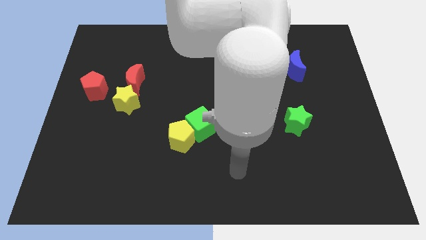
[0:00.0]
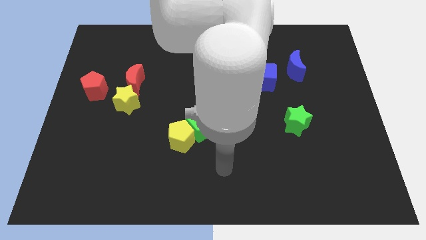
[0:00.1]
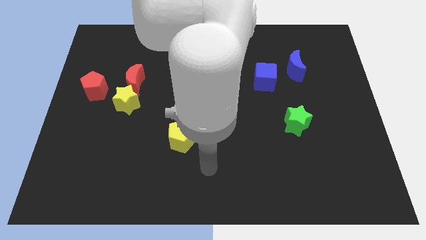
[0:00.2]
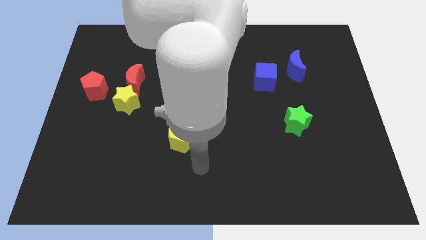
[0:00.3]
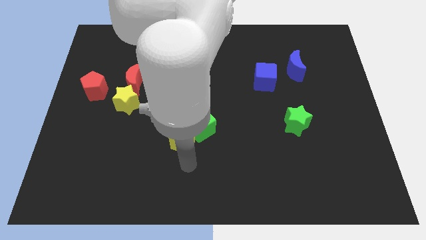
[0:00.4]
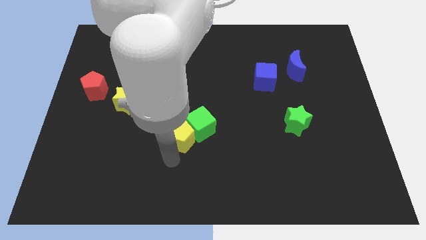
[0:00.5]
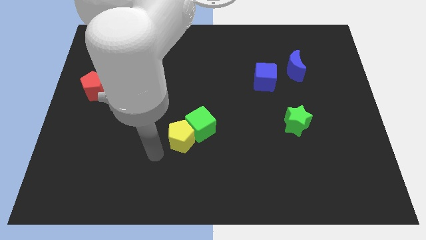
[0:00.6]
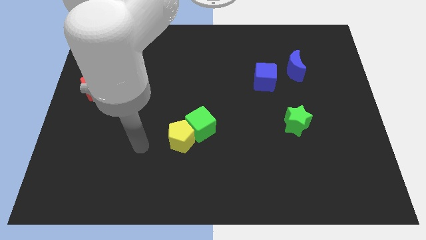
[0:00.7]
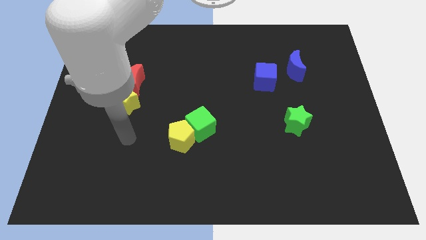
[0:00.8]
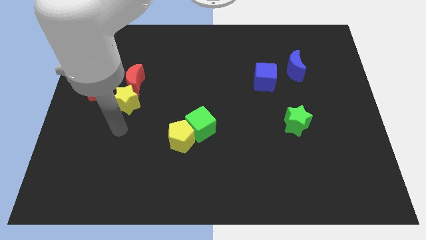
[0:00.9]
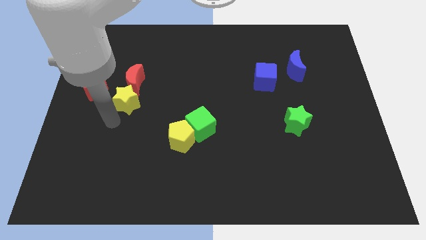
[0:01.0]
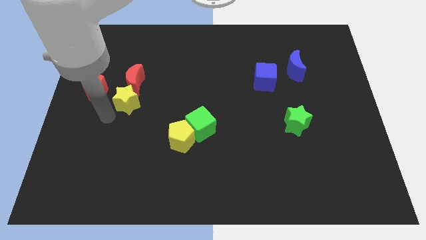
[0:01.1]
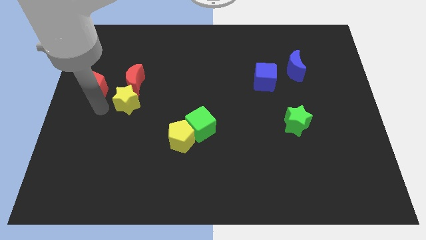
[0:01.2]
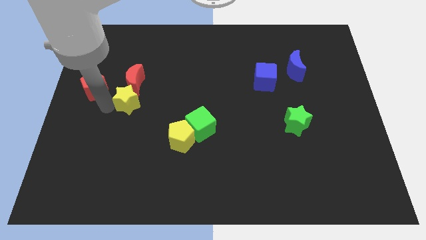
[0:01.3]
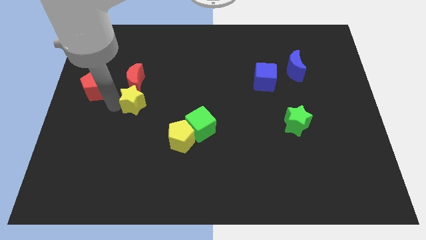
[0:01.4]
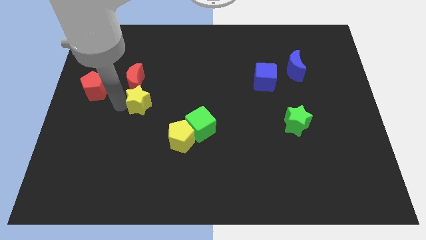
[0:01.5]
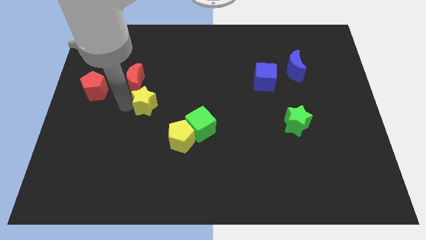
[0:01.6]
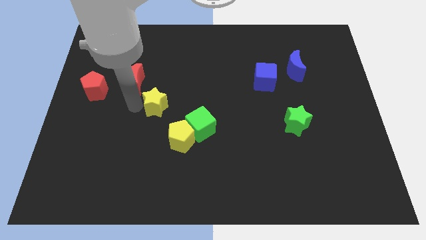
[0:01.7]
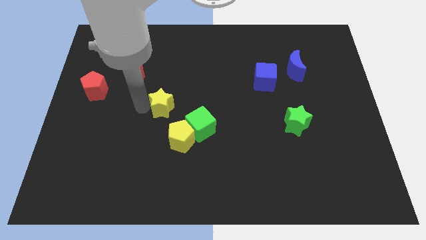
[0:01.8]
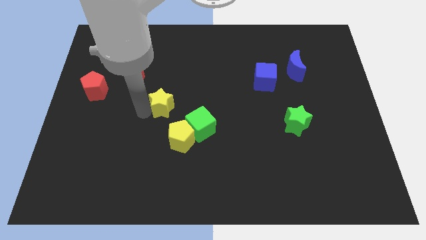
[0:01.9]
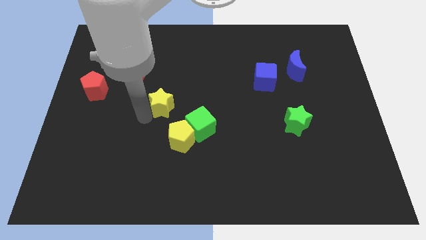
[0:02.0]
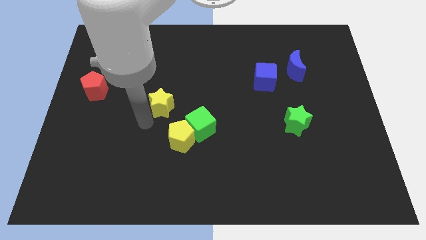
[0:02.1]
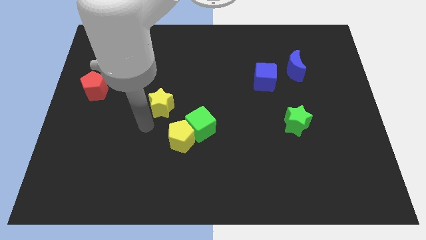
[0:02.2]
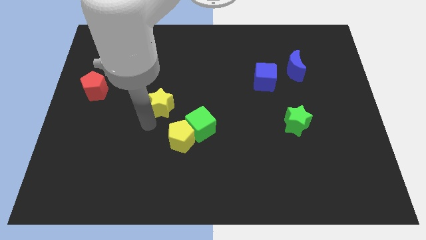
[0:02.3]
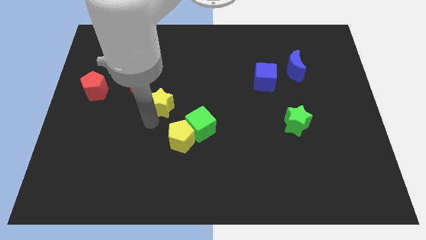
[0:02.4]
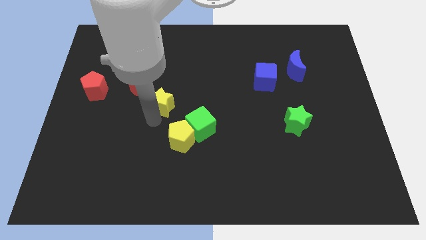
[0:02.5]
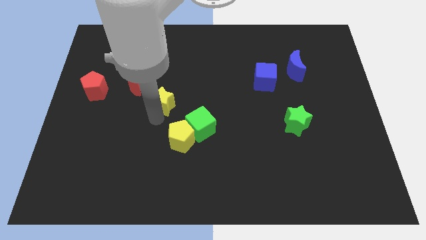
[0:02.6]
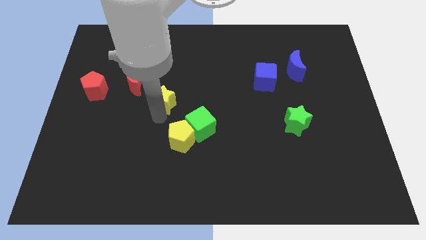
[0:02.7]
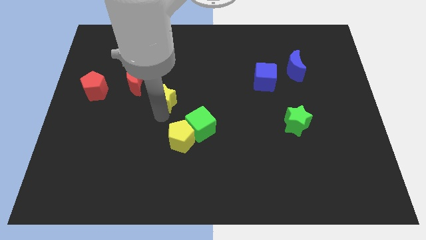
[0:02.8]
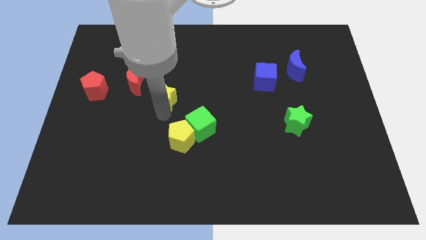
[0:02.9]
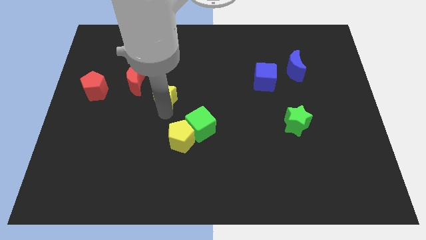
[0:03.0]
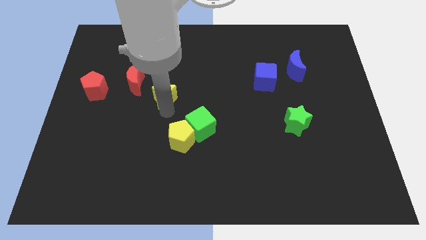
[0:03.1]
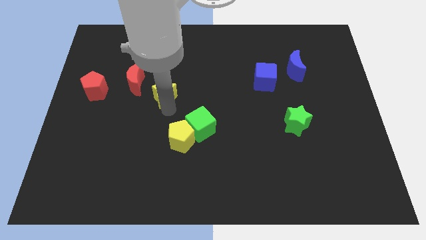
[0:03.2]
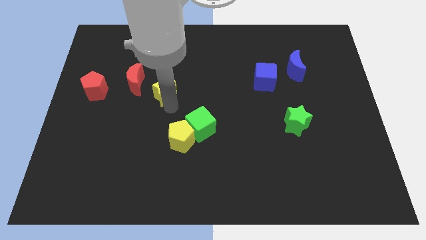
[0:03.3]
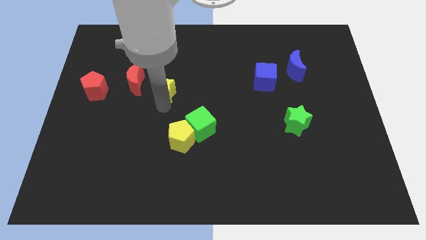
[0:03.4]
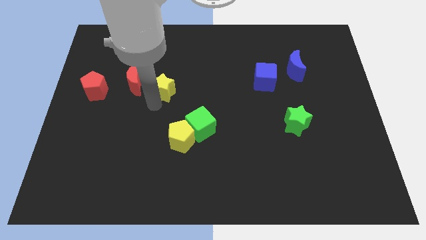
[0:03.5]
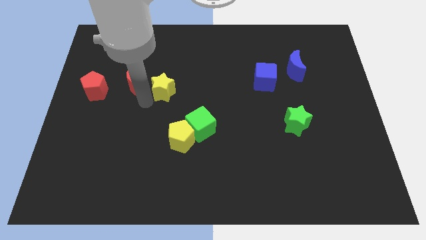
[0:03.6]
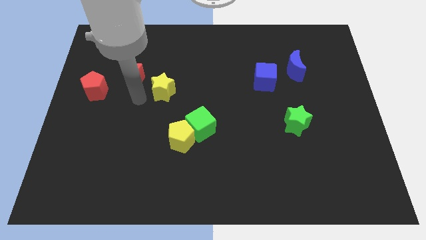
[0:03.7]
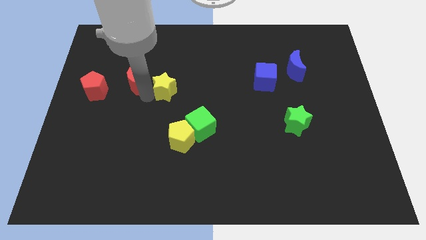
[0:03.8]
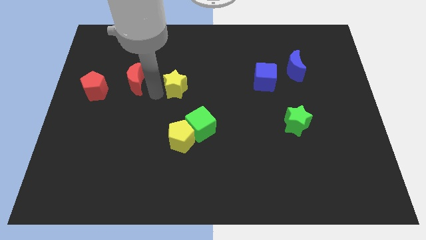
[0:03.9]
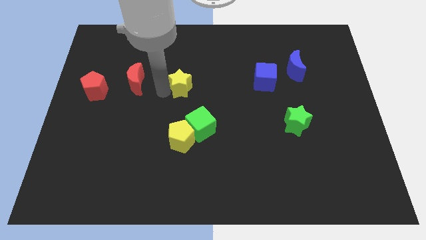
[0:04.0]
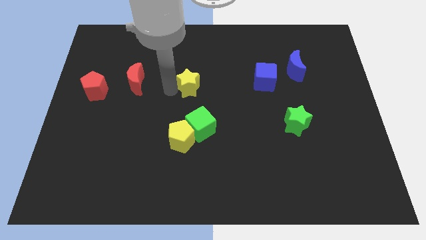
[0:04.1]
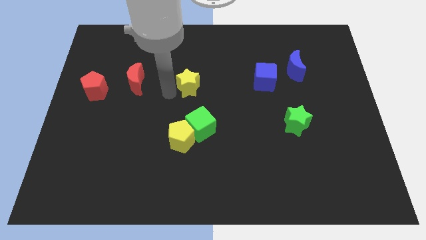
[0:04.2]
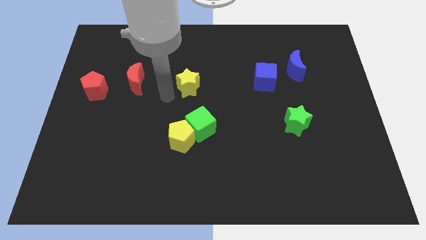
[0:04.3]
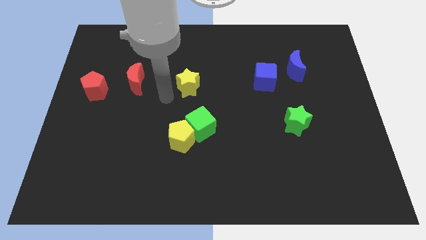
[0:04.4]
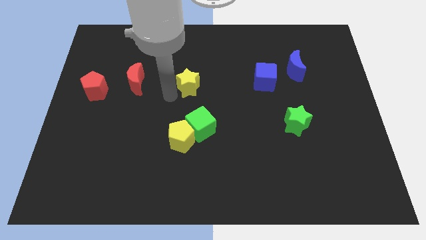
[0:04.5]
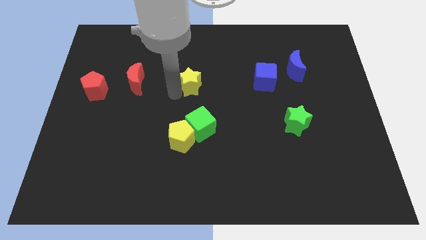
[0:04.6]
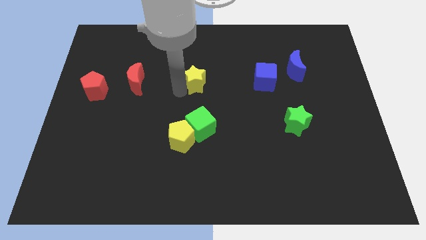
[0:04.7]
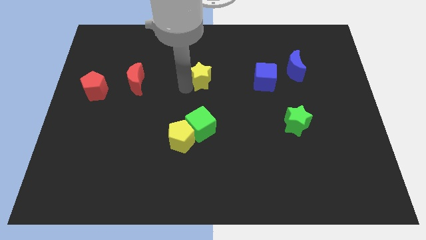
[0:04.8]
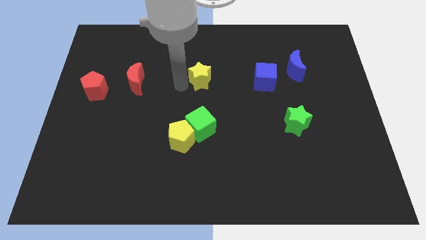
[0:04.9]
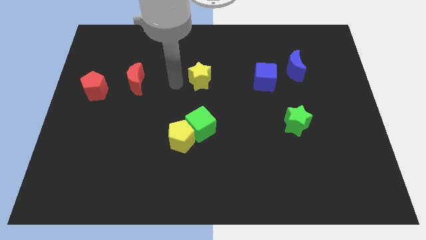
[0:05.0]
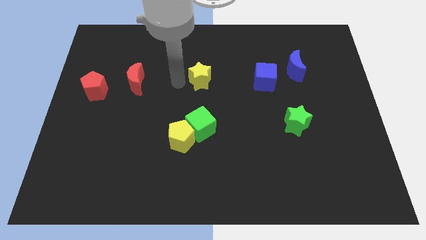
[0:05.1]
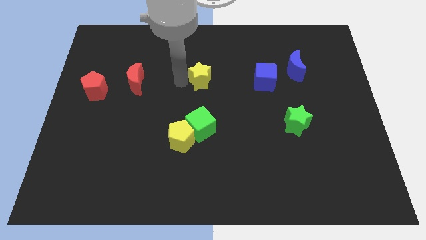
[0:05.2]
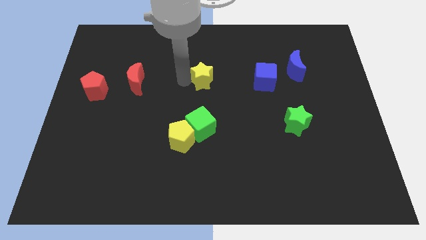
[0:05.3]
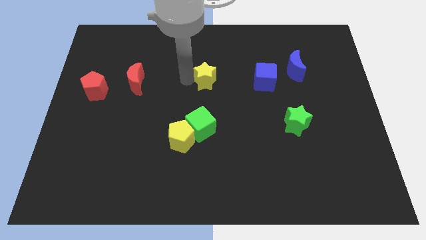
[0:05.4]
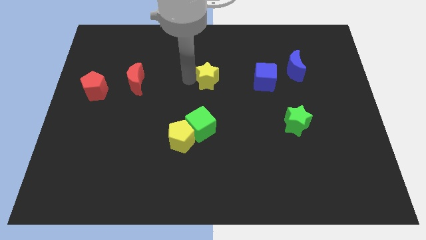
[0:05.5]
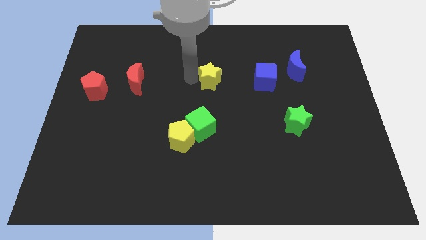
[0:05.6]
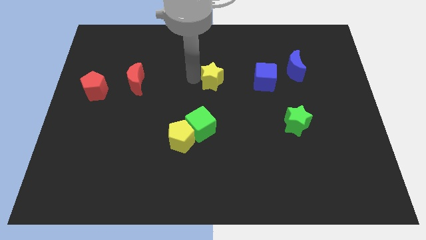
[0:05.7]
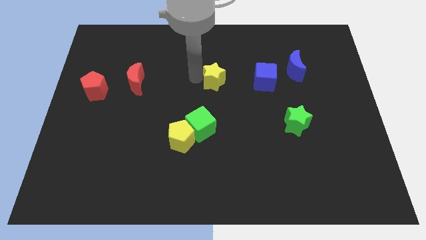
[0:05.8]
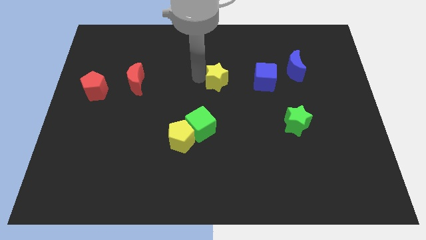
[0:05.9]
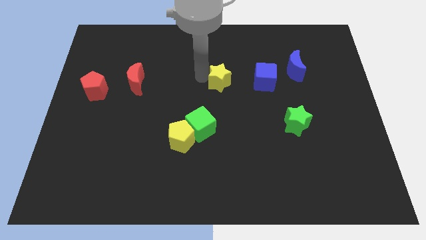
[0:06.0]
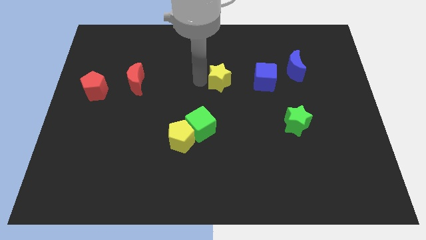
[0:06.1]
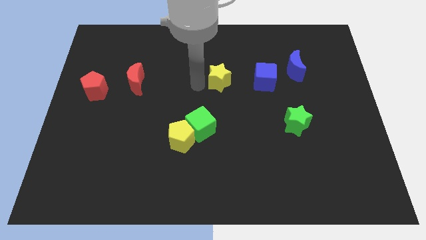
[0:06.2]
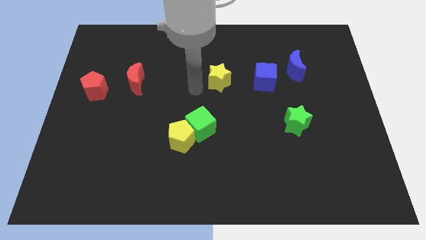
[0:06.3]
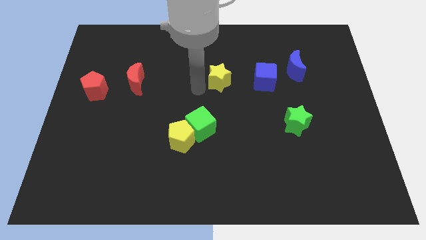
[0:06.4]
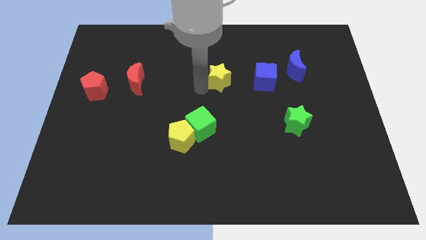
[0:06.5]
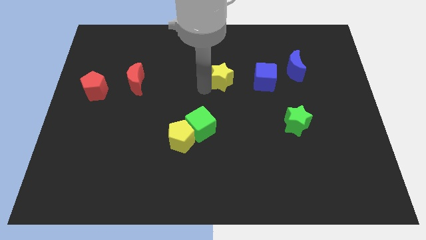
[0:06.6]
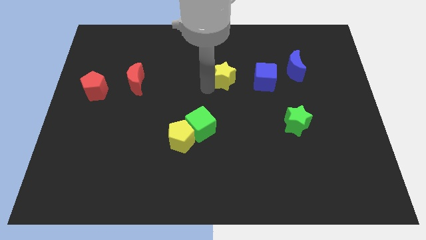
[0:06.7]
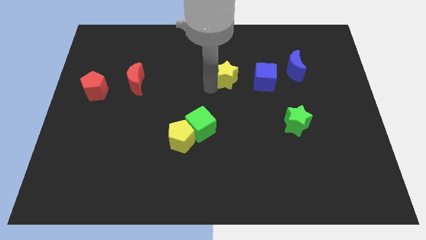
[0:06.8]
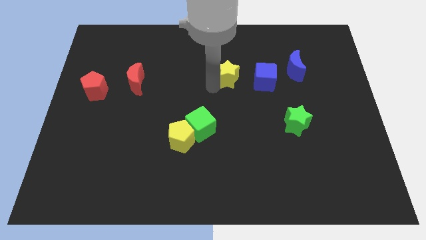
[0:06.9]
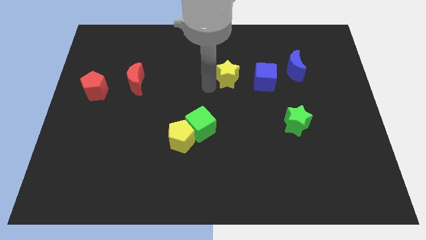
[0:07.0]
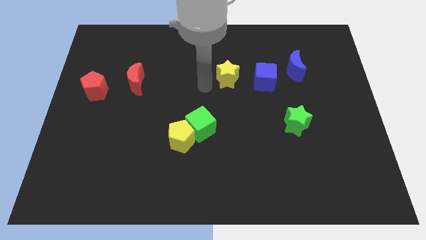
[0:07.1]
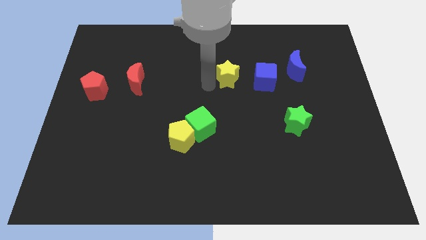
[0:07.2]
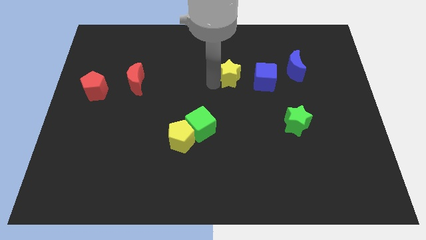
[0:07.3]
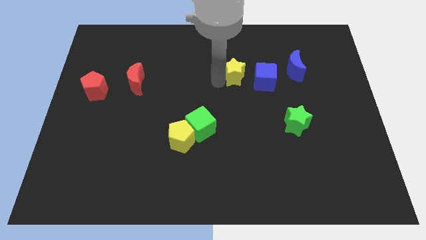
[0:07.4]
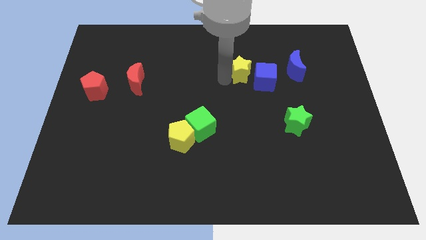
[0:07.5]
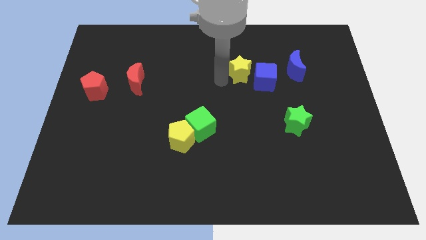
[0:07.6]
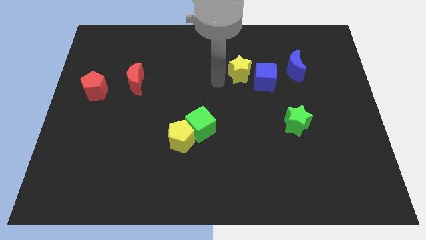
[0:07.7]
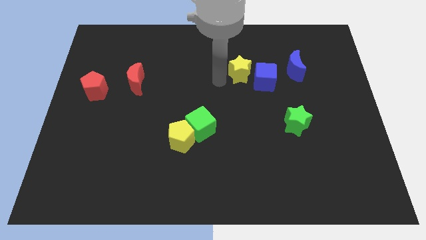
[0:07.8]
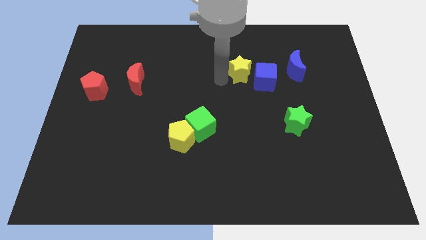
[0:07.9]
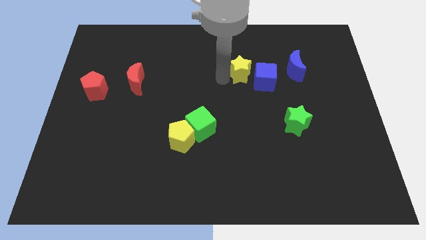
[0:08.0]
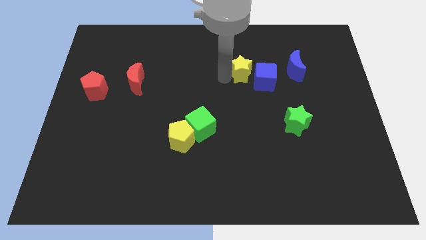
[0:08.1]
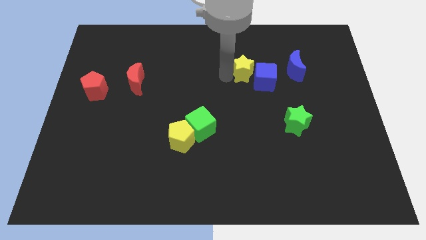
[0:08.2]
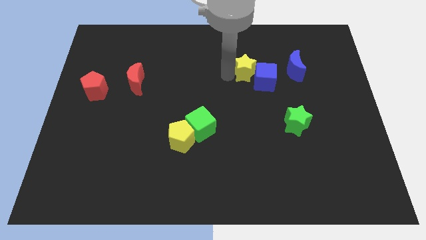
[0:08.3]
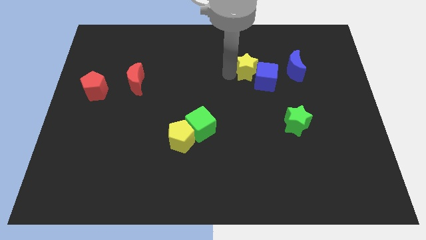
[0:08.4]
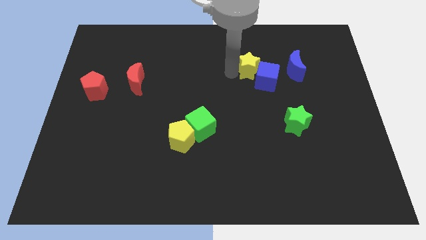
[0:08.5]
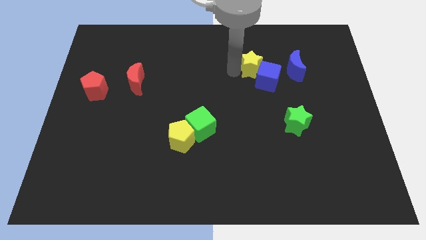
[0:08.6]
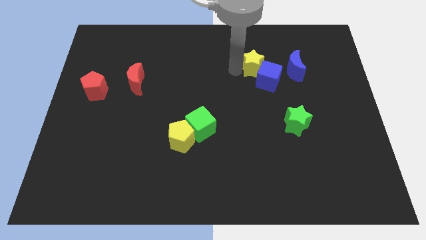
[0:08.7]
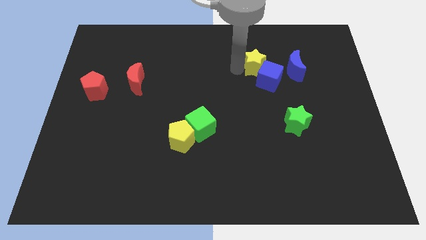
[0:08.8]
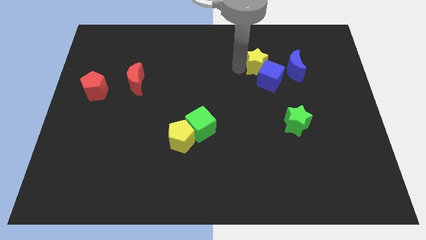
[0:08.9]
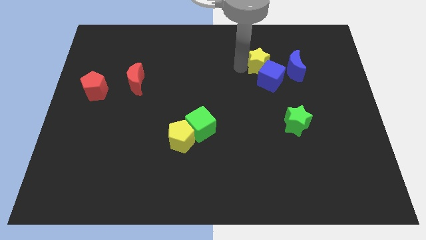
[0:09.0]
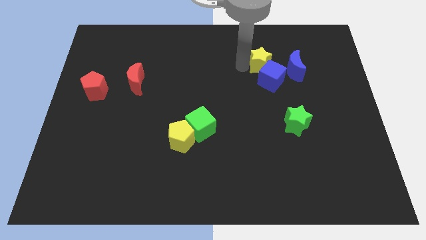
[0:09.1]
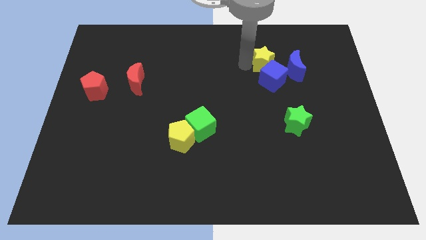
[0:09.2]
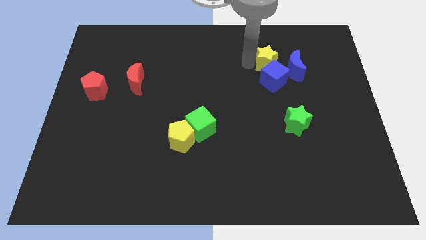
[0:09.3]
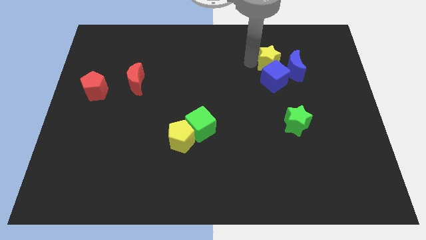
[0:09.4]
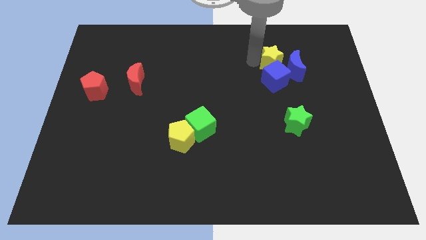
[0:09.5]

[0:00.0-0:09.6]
push the yellow star close to the blue moon
